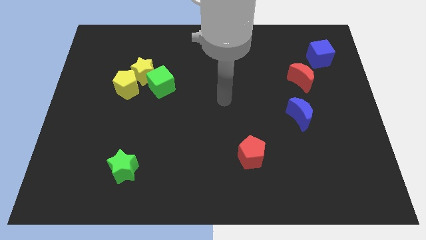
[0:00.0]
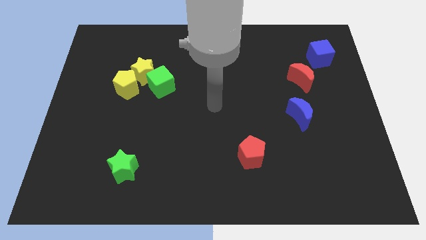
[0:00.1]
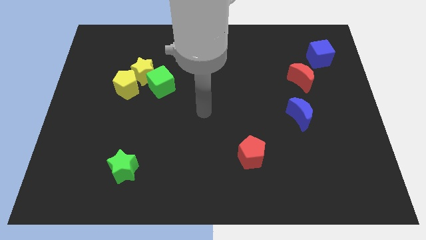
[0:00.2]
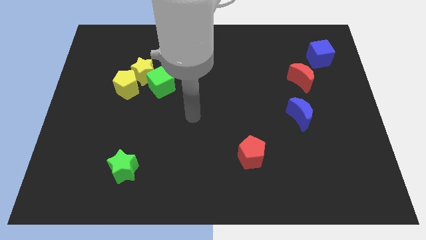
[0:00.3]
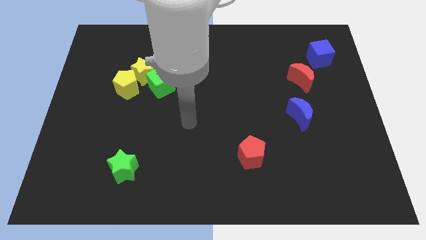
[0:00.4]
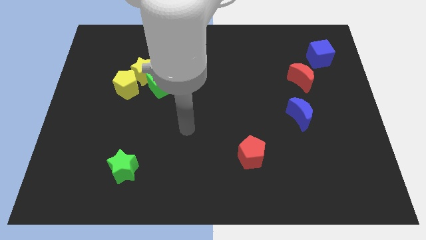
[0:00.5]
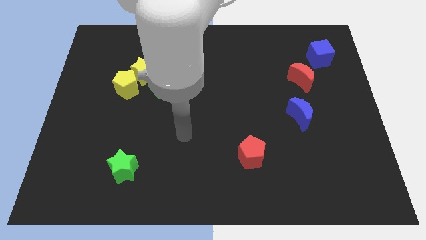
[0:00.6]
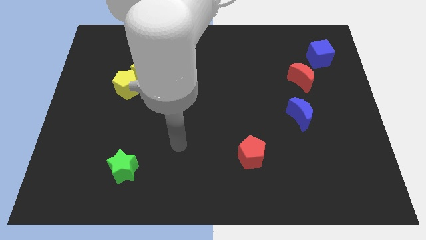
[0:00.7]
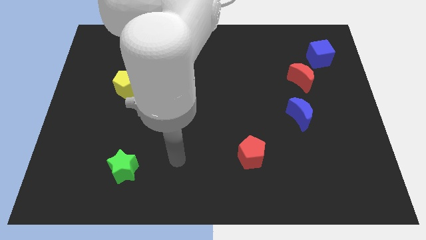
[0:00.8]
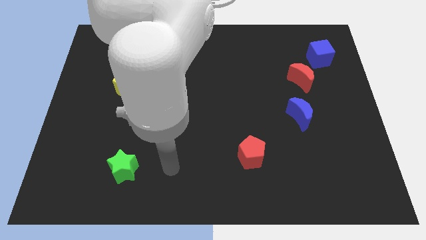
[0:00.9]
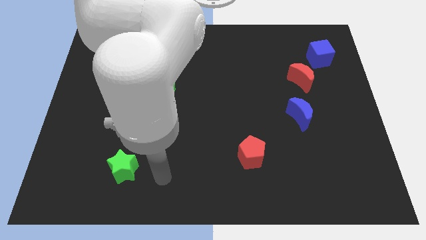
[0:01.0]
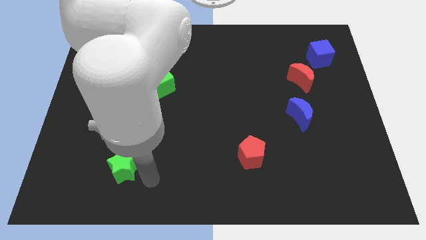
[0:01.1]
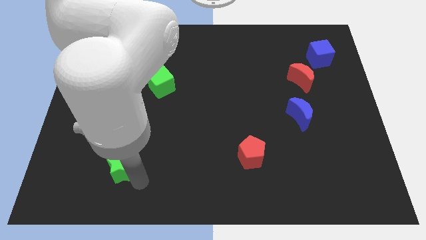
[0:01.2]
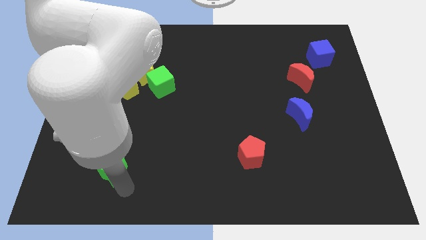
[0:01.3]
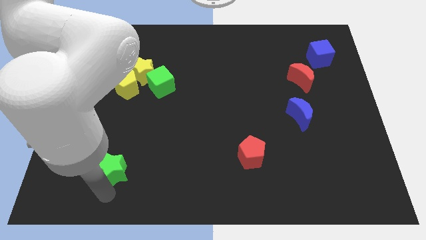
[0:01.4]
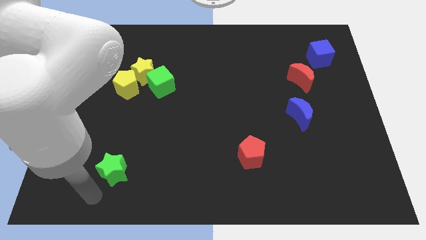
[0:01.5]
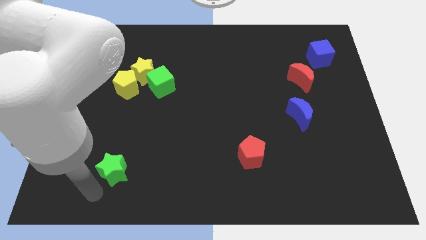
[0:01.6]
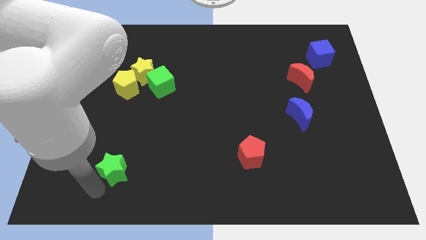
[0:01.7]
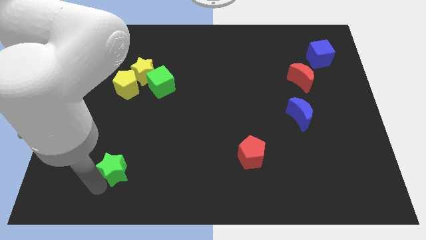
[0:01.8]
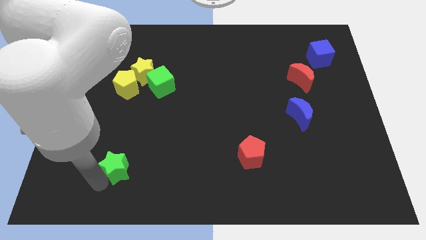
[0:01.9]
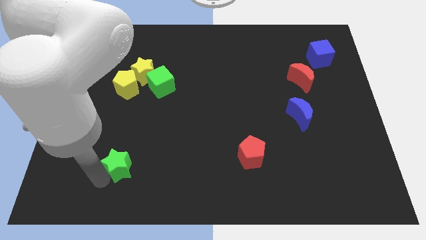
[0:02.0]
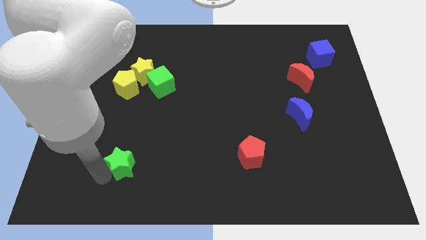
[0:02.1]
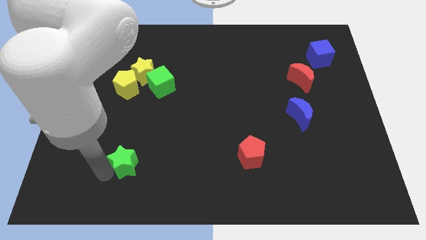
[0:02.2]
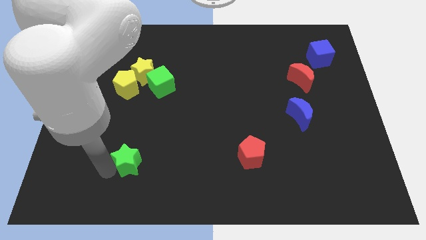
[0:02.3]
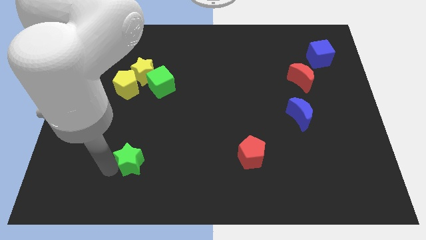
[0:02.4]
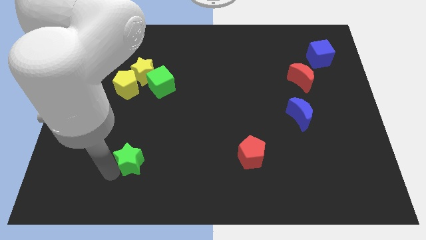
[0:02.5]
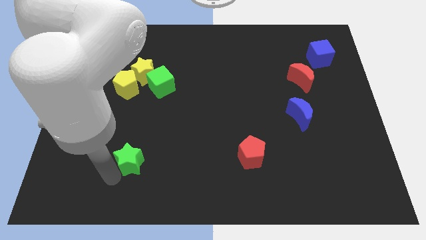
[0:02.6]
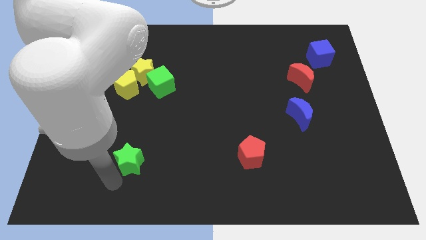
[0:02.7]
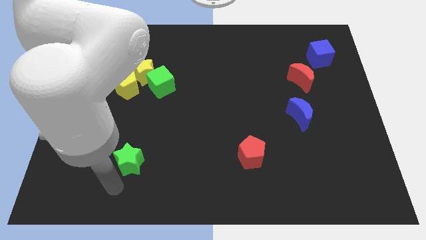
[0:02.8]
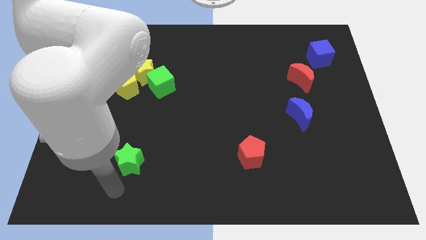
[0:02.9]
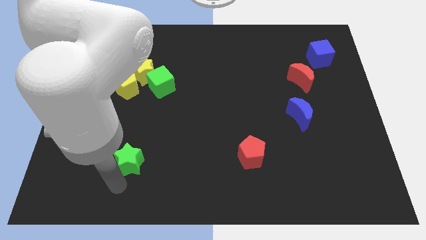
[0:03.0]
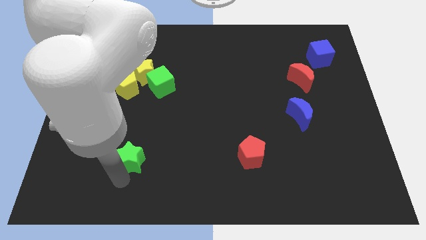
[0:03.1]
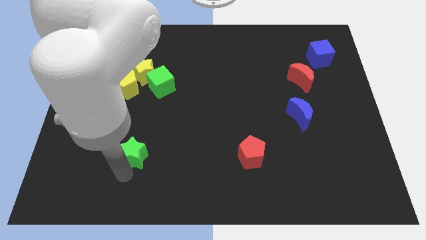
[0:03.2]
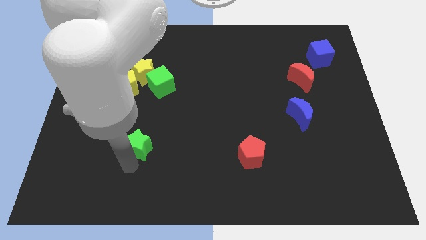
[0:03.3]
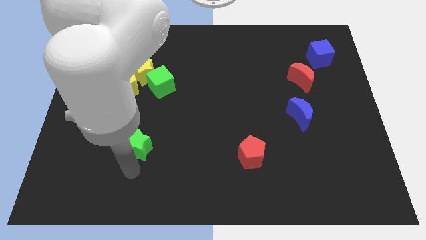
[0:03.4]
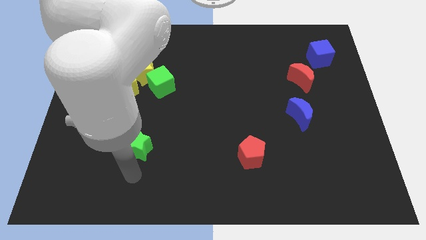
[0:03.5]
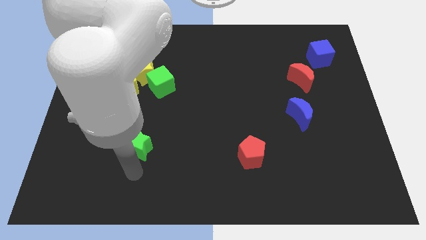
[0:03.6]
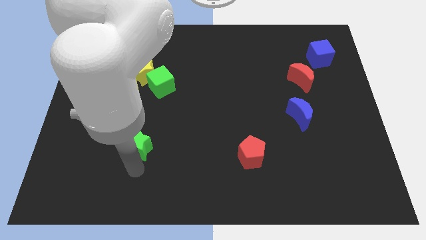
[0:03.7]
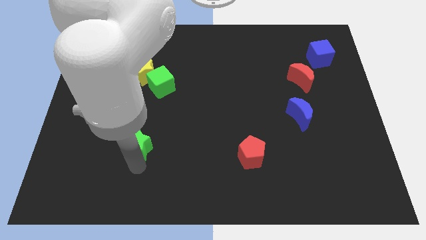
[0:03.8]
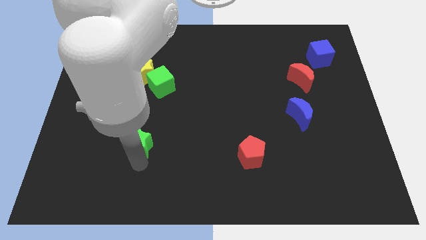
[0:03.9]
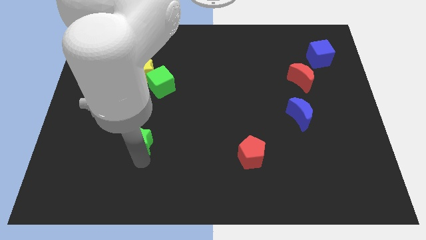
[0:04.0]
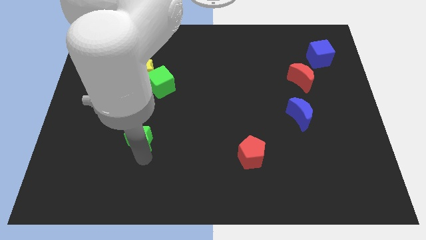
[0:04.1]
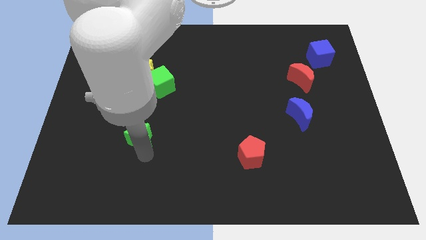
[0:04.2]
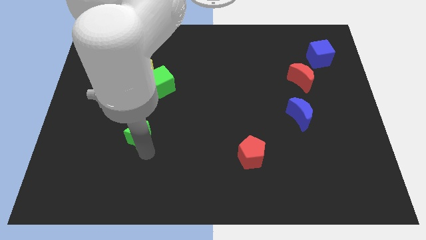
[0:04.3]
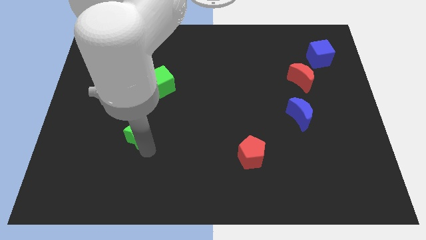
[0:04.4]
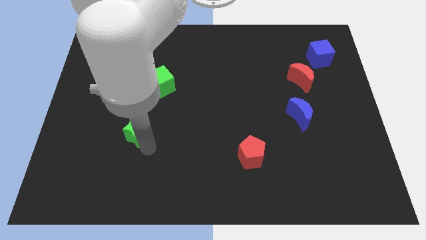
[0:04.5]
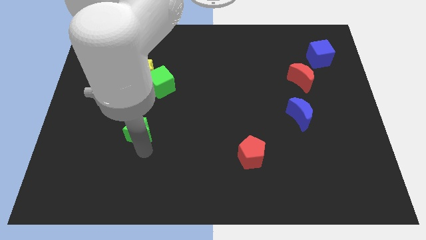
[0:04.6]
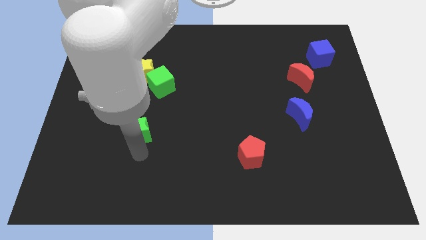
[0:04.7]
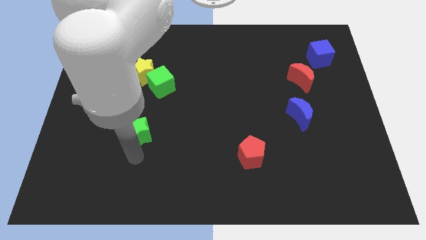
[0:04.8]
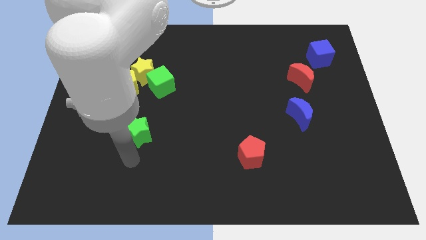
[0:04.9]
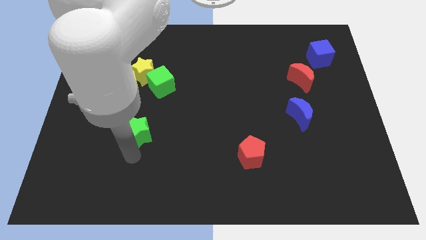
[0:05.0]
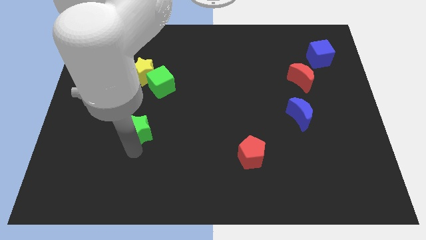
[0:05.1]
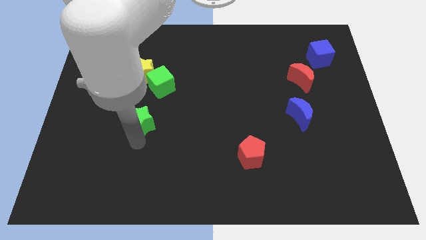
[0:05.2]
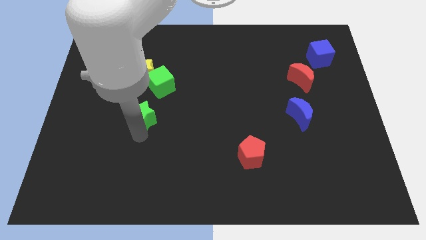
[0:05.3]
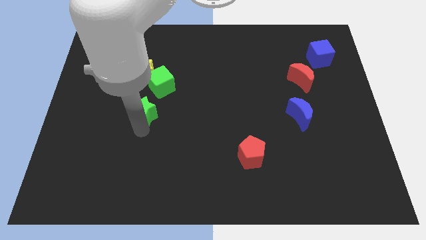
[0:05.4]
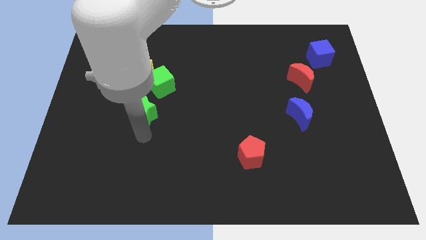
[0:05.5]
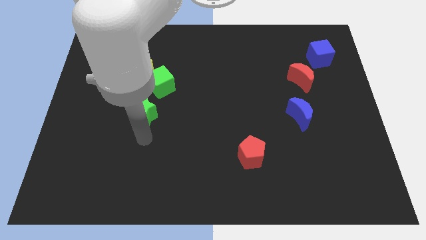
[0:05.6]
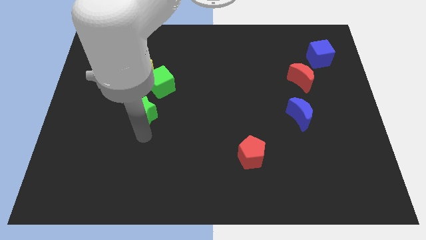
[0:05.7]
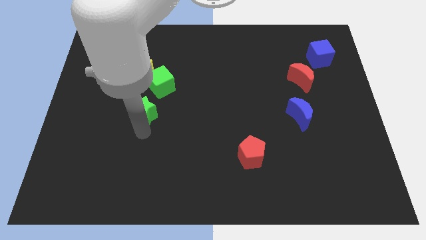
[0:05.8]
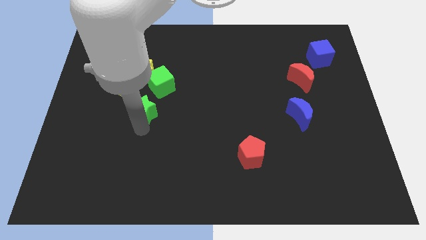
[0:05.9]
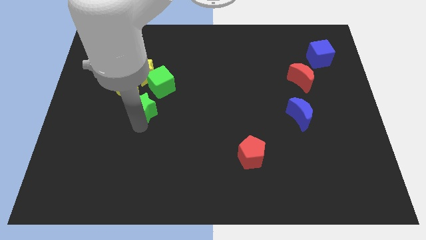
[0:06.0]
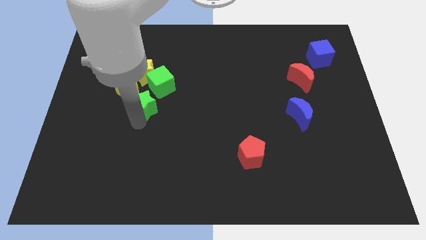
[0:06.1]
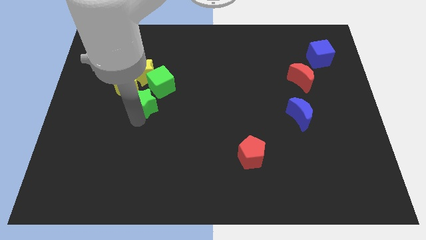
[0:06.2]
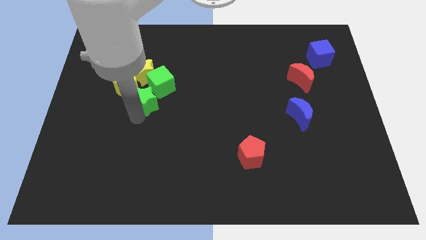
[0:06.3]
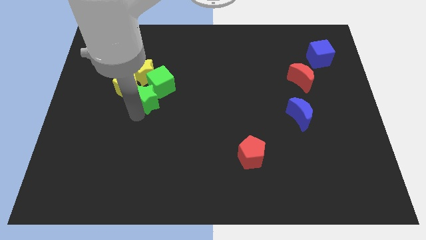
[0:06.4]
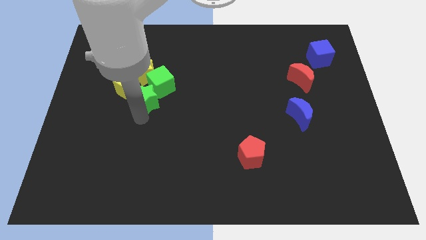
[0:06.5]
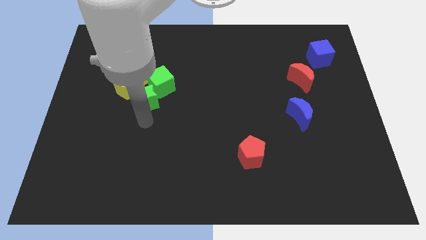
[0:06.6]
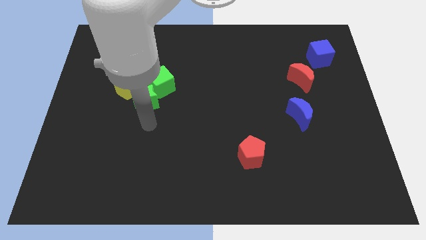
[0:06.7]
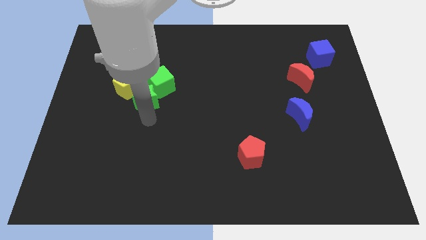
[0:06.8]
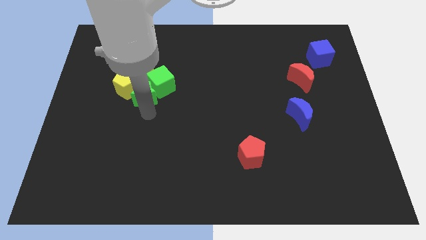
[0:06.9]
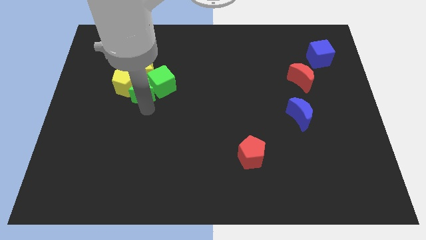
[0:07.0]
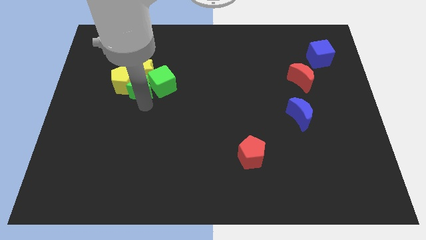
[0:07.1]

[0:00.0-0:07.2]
push the green star towards the yellow star
